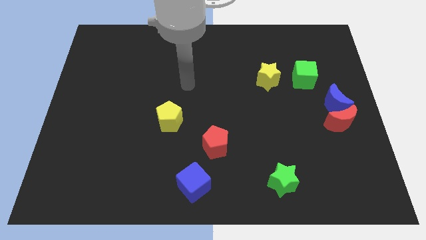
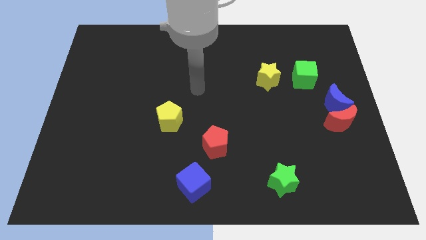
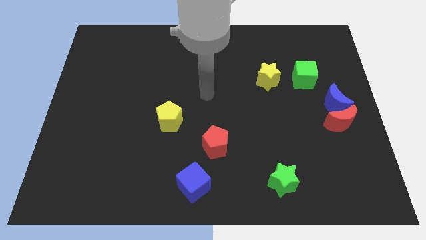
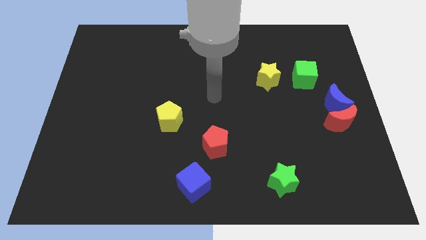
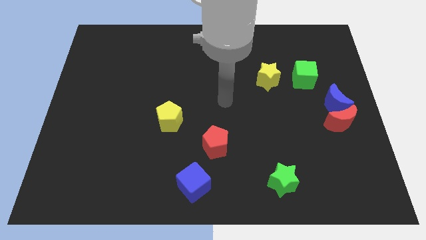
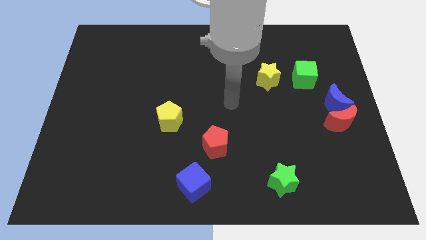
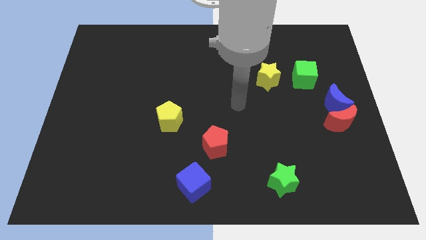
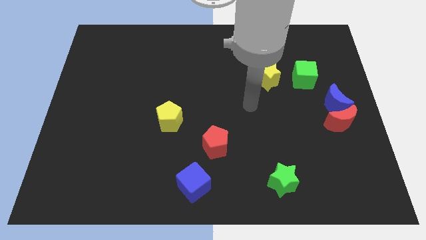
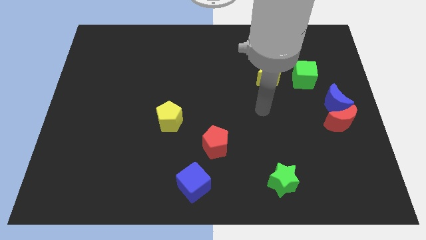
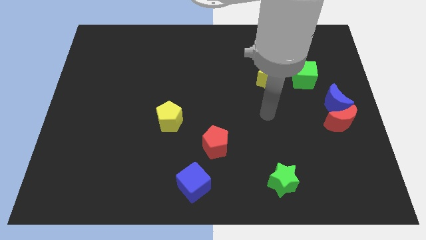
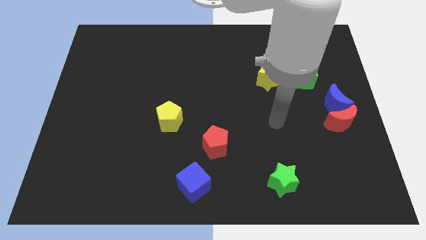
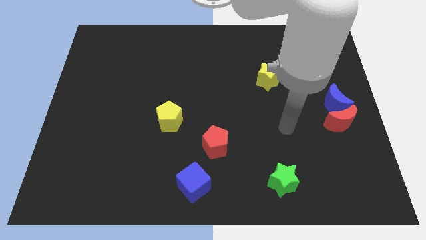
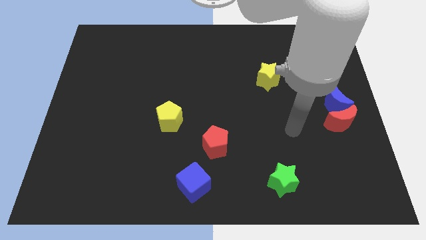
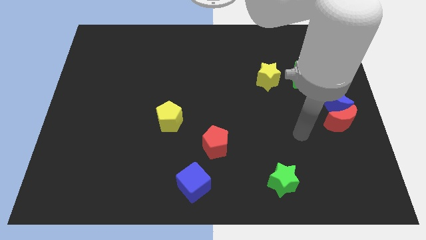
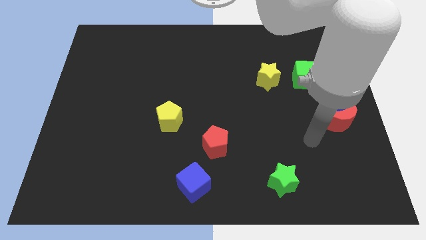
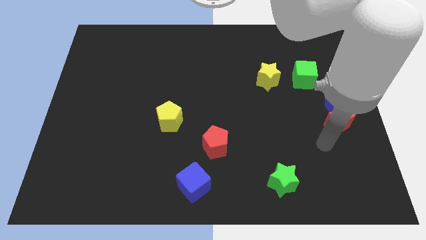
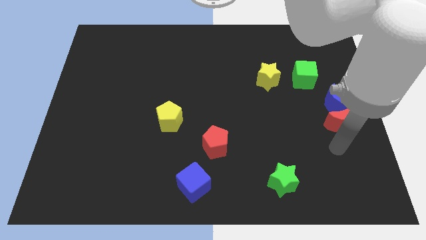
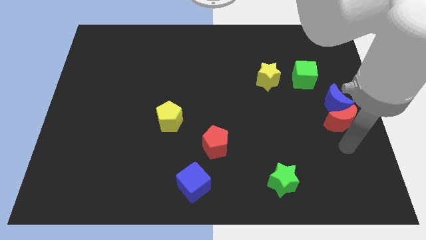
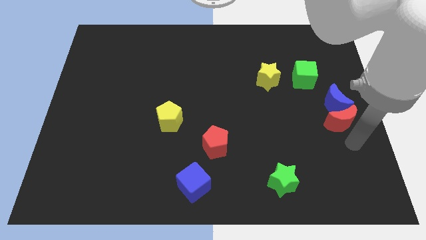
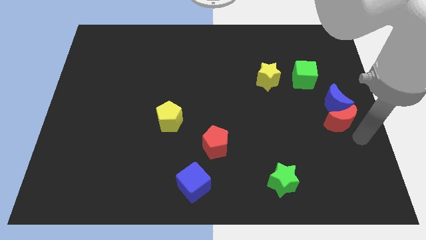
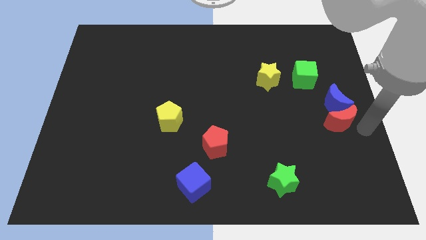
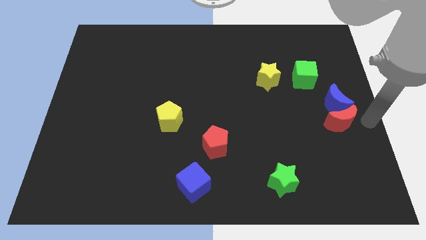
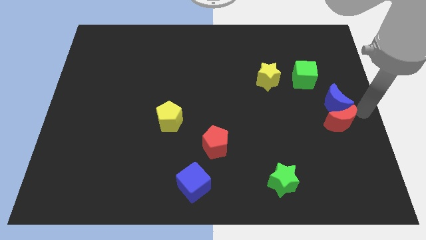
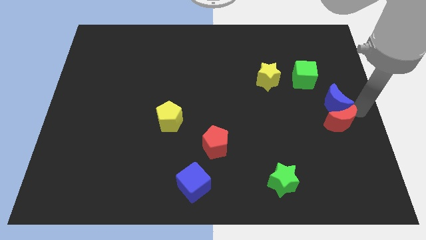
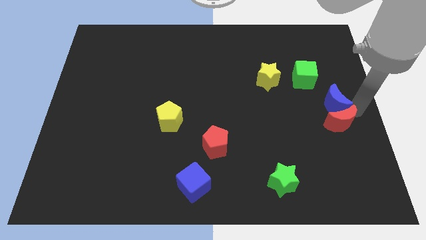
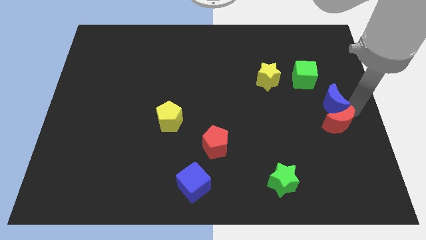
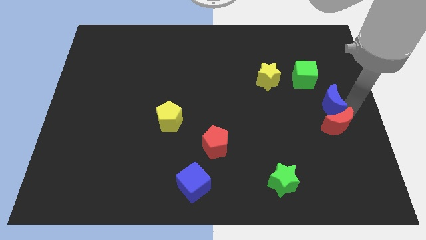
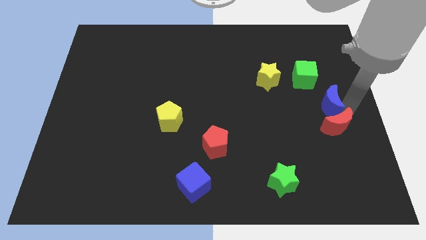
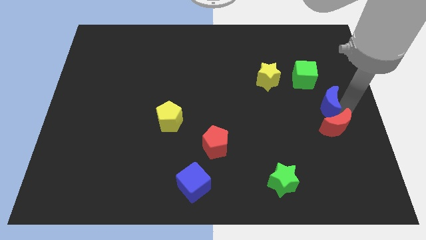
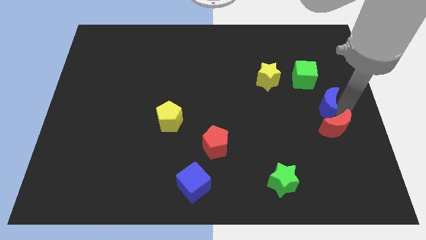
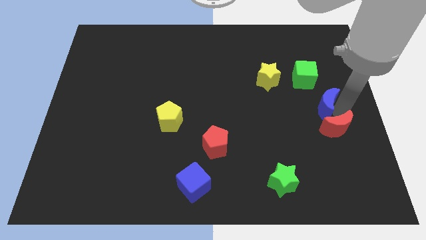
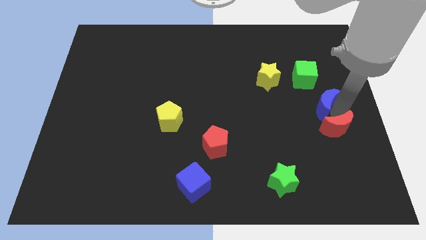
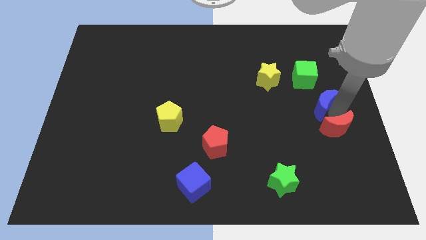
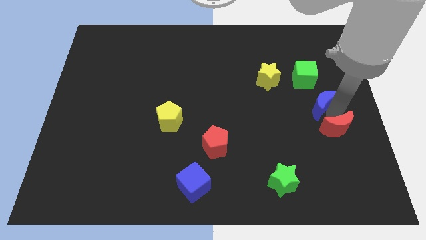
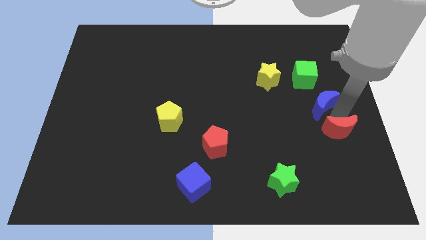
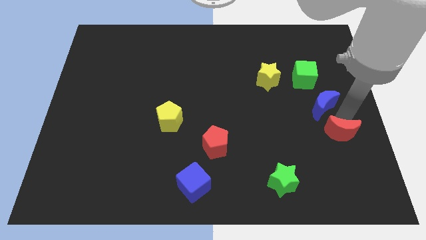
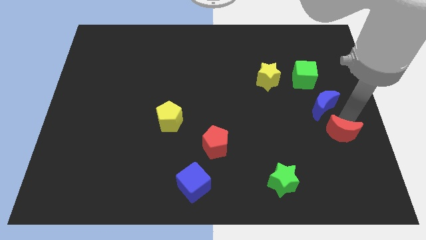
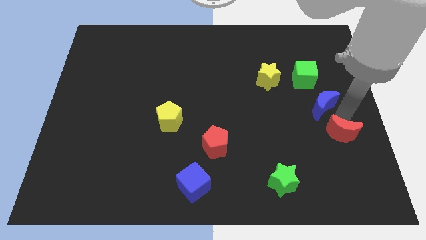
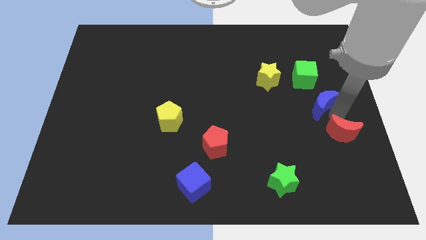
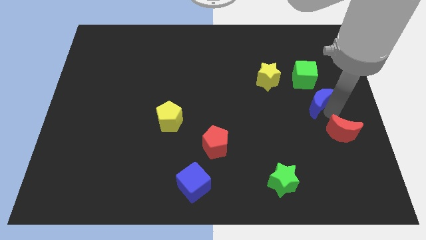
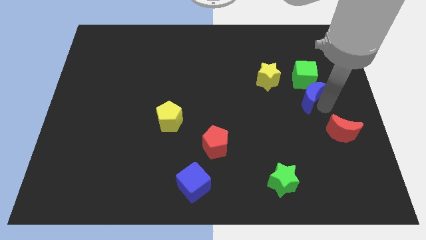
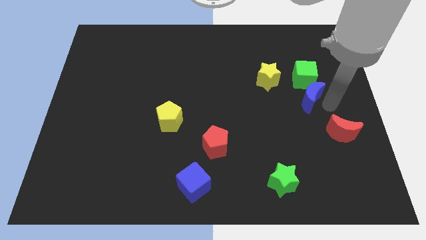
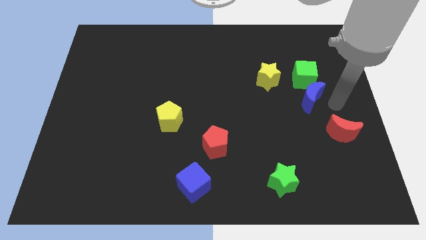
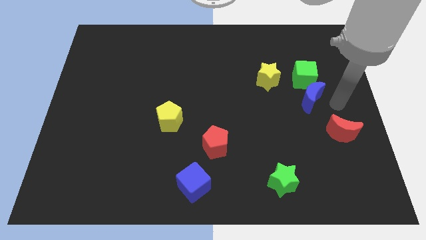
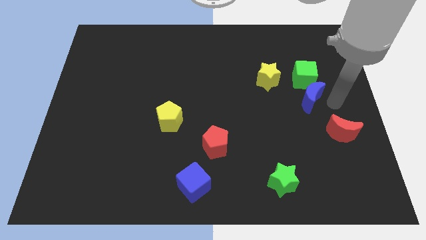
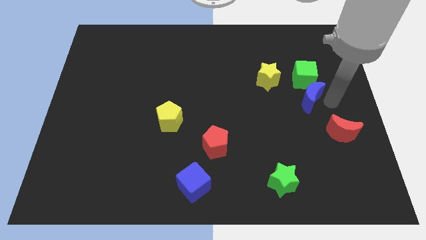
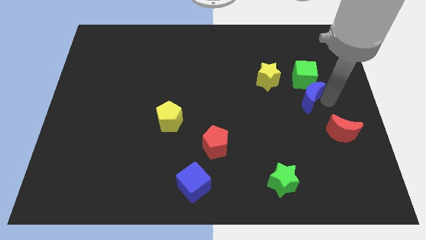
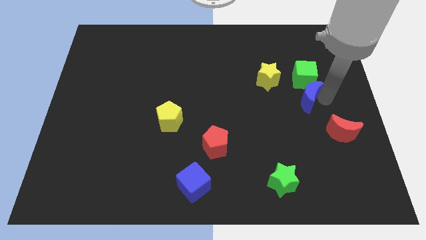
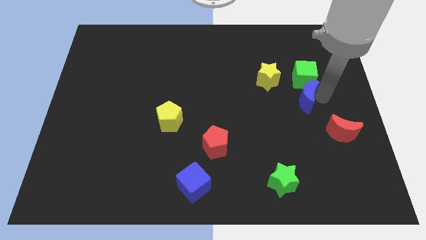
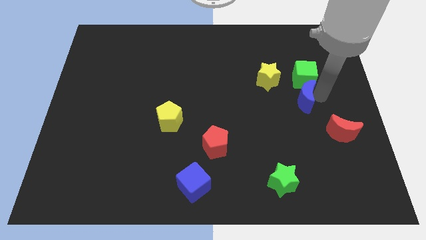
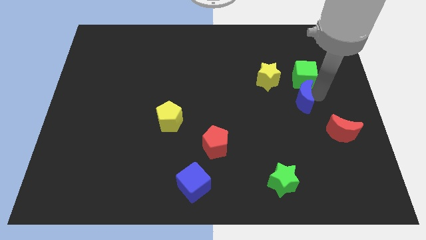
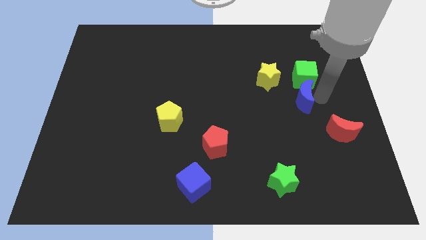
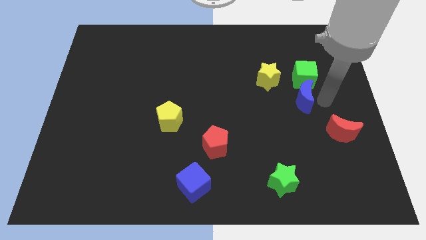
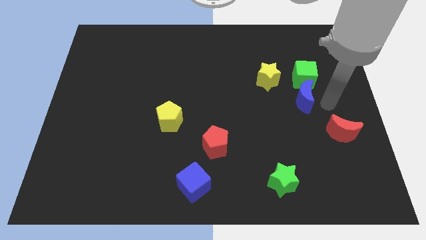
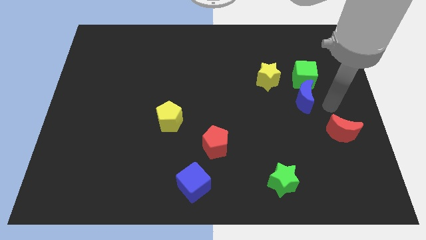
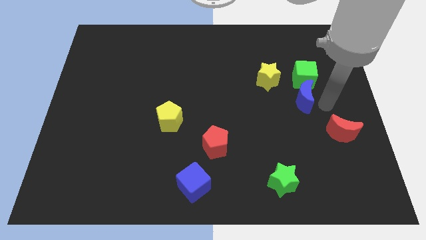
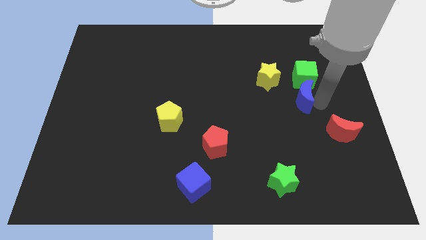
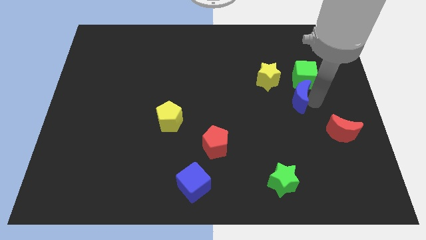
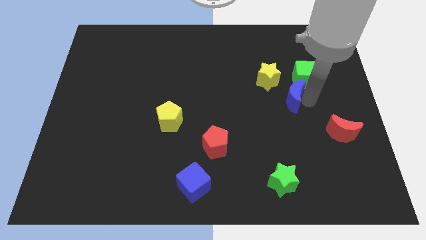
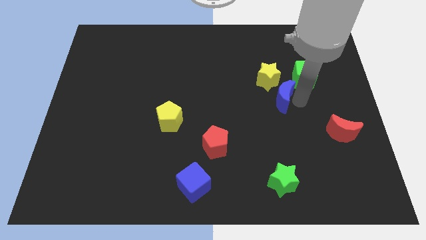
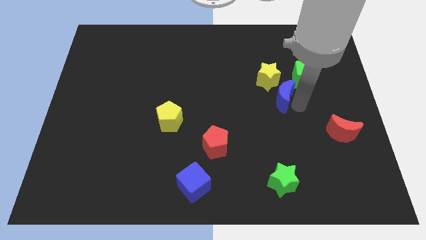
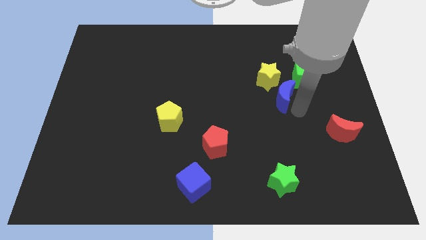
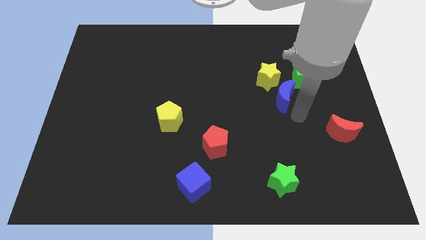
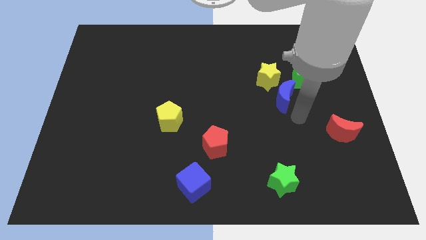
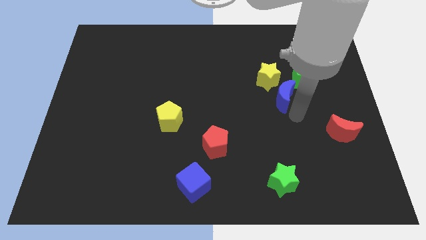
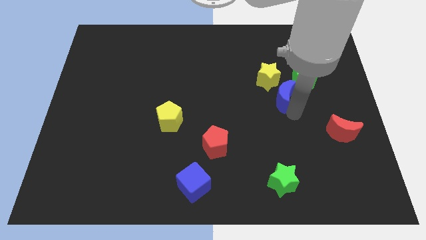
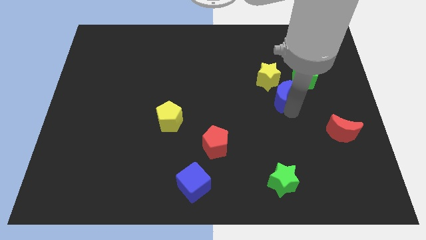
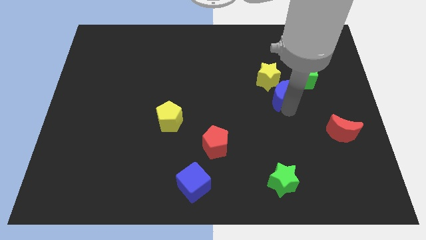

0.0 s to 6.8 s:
slide the blue moon to the yellow star
